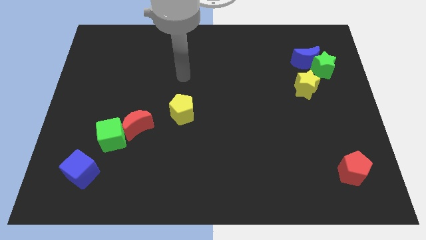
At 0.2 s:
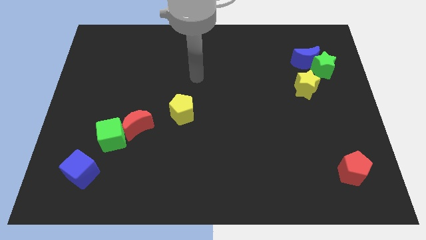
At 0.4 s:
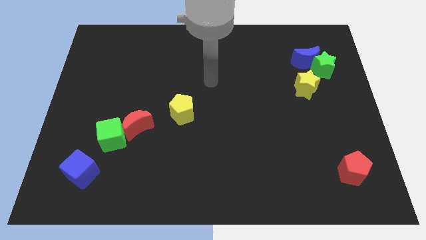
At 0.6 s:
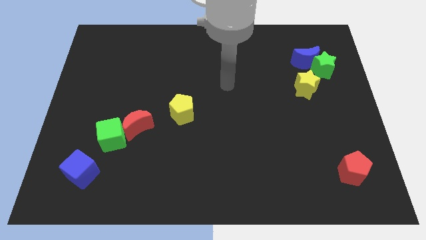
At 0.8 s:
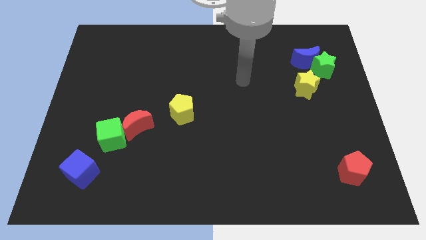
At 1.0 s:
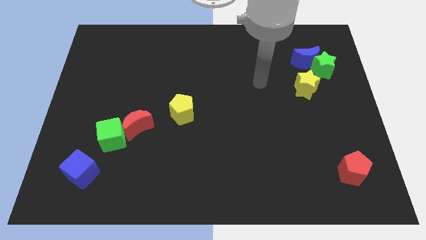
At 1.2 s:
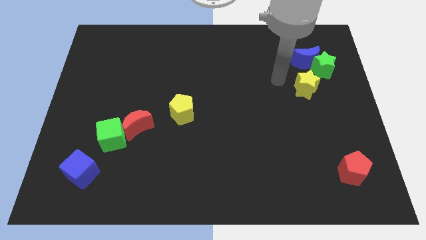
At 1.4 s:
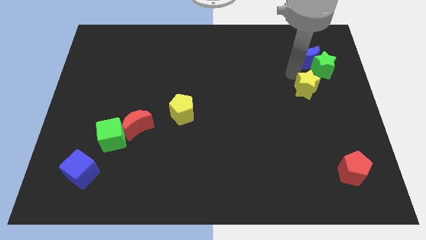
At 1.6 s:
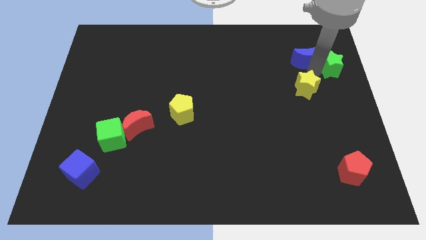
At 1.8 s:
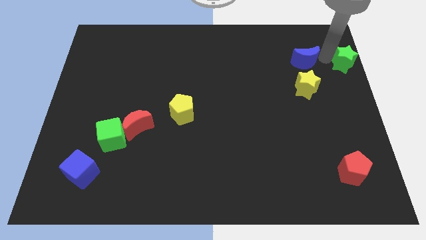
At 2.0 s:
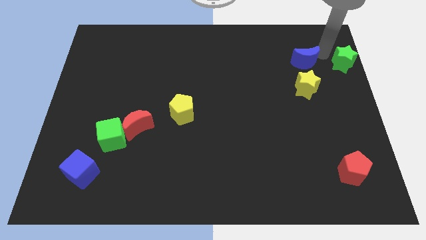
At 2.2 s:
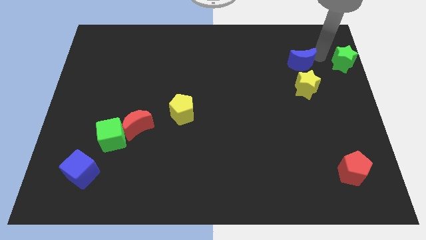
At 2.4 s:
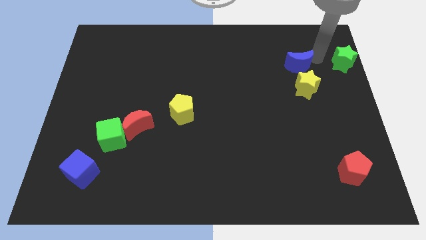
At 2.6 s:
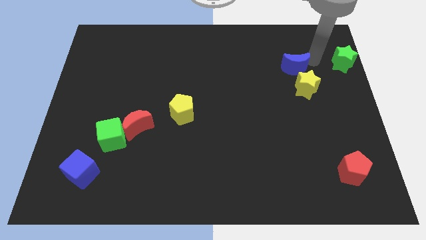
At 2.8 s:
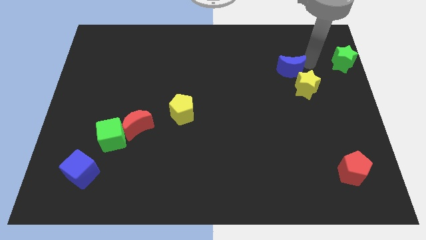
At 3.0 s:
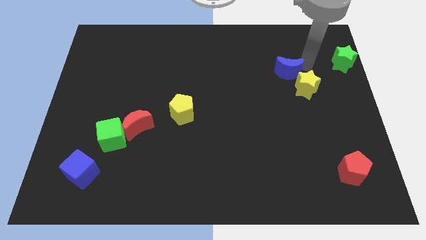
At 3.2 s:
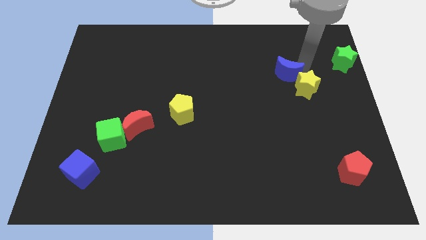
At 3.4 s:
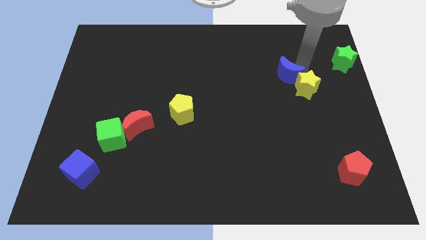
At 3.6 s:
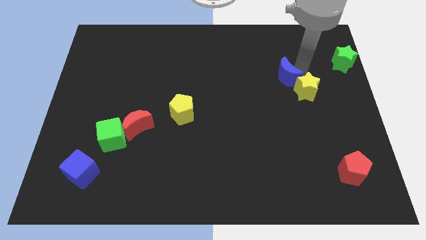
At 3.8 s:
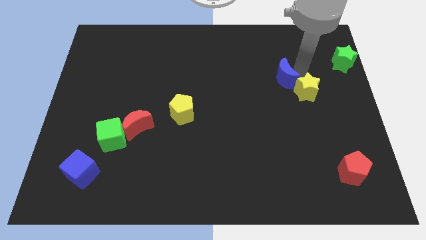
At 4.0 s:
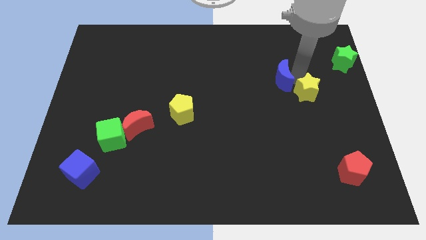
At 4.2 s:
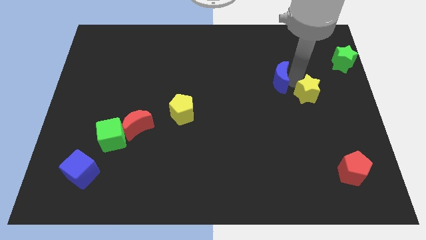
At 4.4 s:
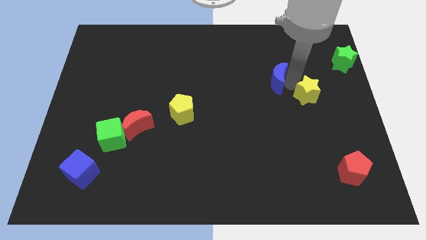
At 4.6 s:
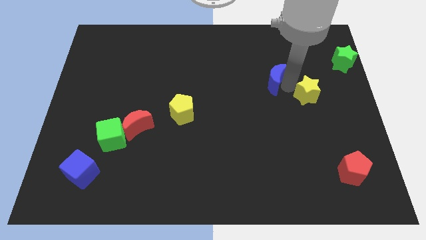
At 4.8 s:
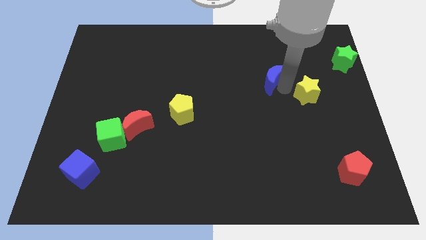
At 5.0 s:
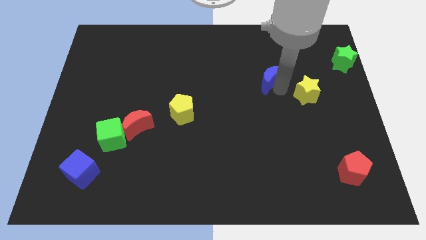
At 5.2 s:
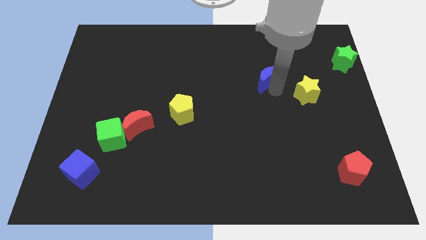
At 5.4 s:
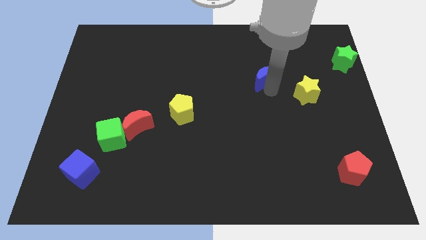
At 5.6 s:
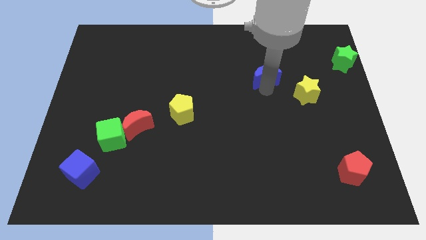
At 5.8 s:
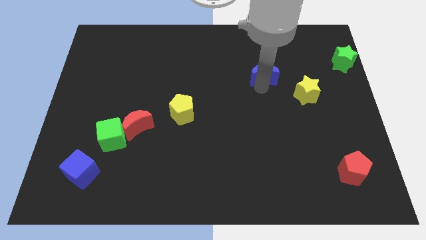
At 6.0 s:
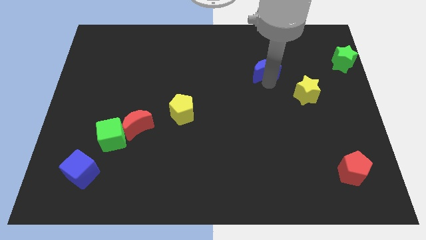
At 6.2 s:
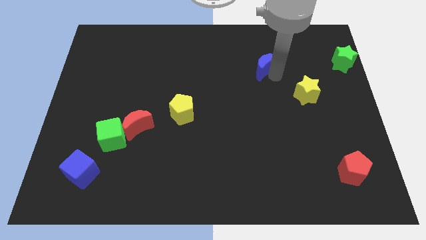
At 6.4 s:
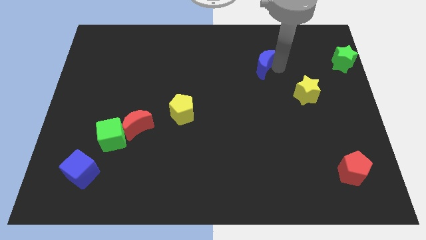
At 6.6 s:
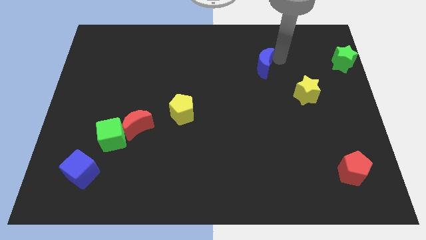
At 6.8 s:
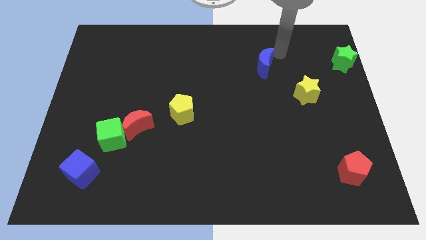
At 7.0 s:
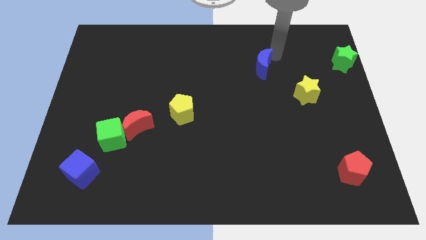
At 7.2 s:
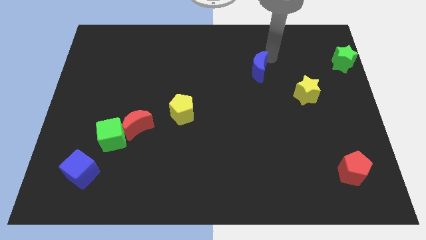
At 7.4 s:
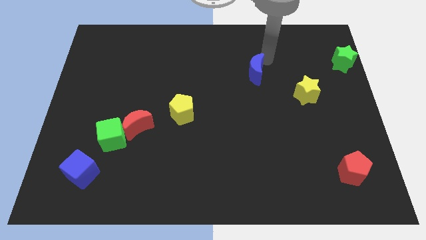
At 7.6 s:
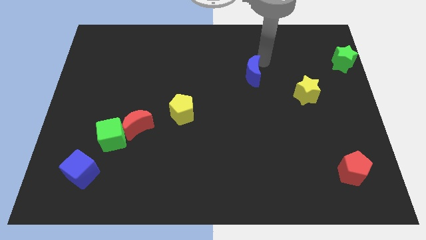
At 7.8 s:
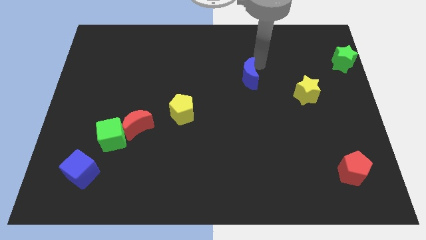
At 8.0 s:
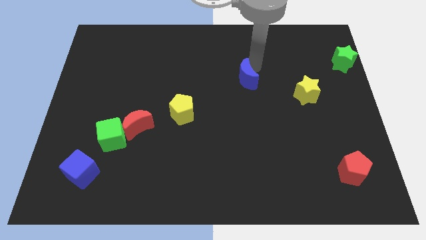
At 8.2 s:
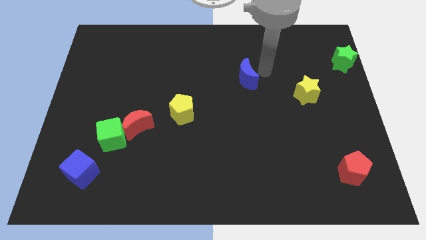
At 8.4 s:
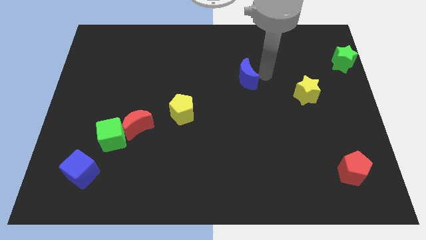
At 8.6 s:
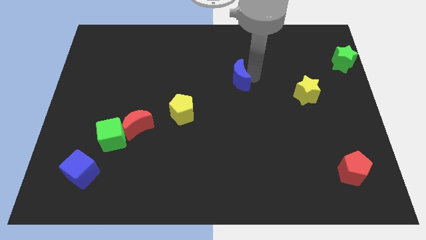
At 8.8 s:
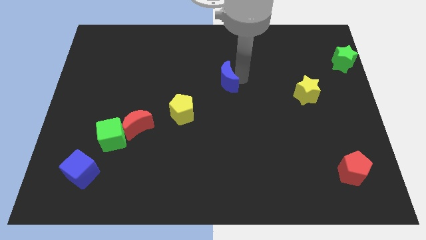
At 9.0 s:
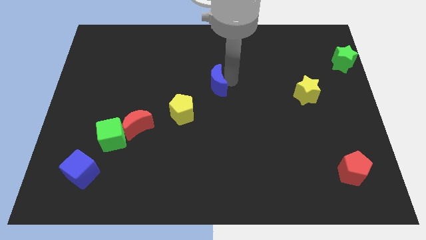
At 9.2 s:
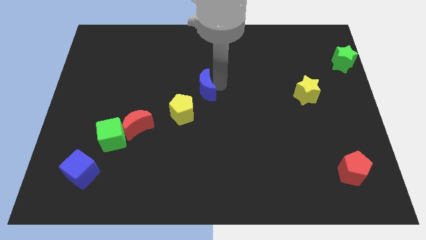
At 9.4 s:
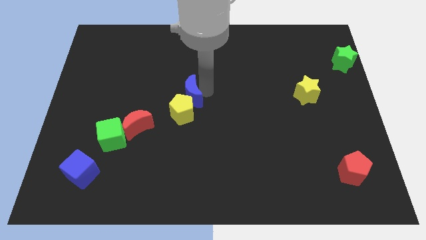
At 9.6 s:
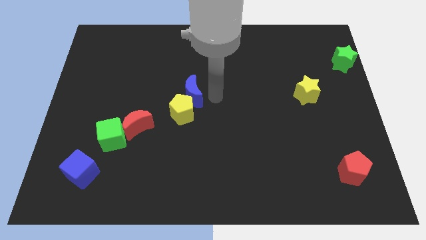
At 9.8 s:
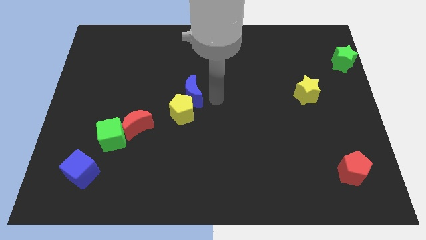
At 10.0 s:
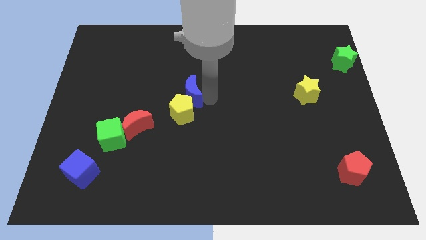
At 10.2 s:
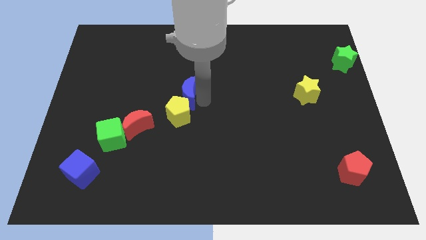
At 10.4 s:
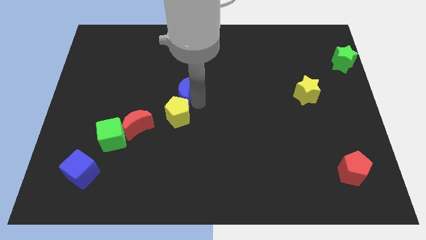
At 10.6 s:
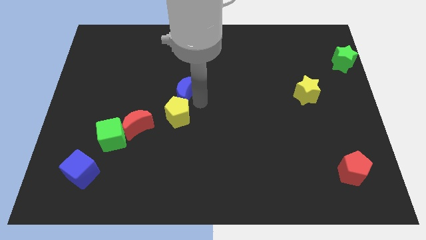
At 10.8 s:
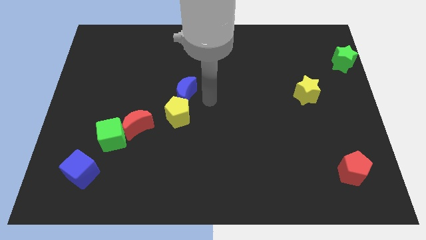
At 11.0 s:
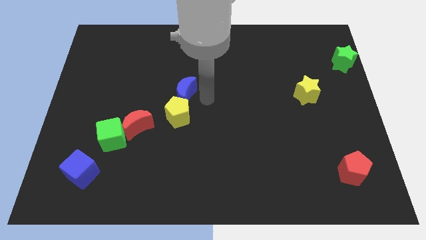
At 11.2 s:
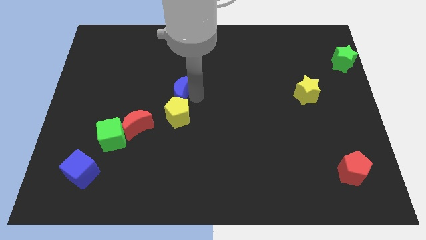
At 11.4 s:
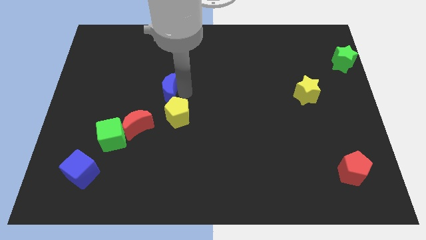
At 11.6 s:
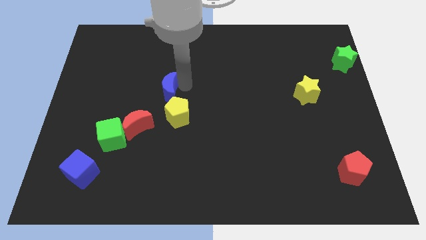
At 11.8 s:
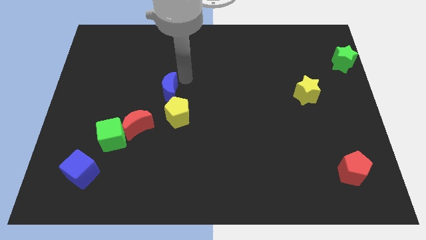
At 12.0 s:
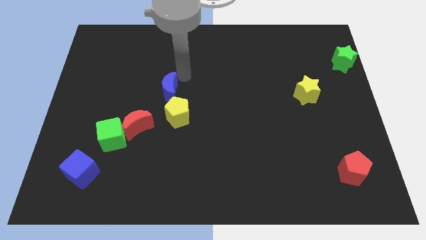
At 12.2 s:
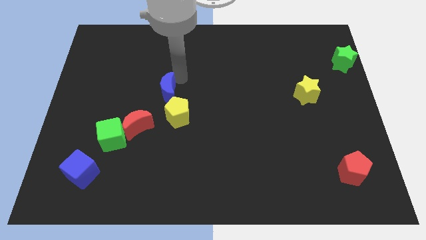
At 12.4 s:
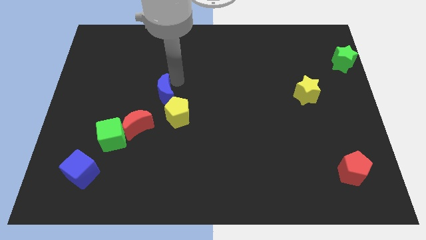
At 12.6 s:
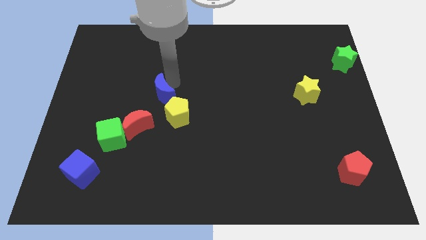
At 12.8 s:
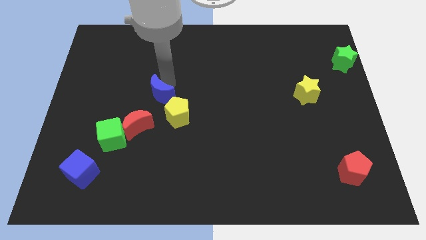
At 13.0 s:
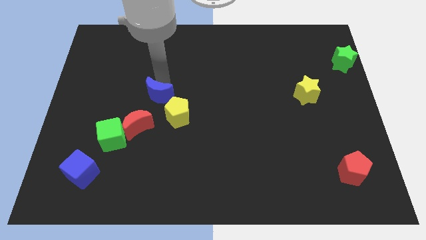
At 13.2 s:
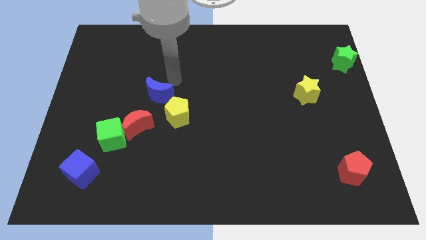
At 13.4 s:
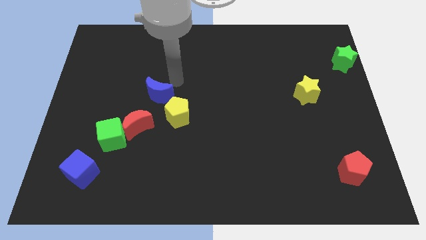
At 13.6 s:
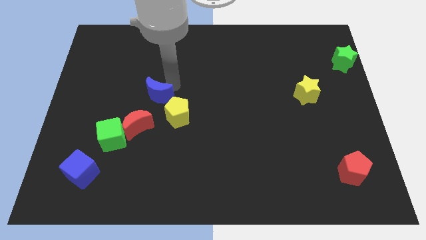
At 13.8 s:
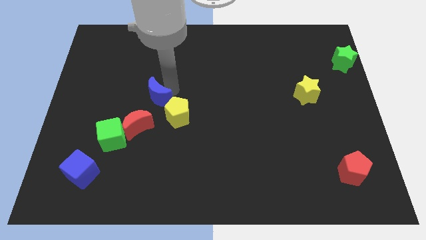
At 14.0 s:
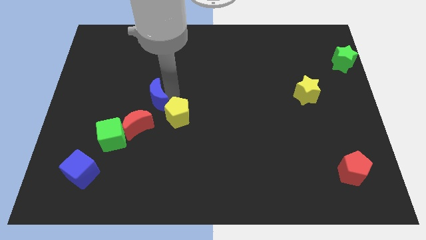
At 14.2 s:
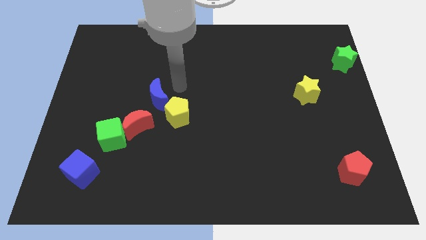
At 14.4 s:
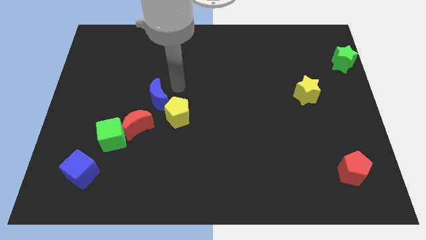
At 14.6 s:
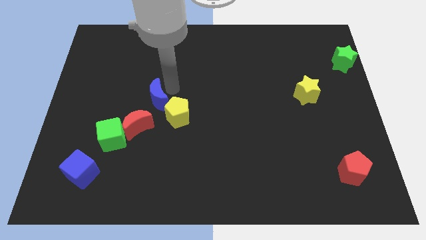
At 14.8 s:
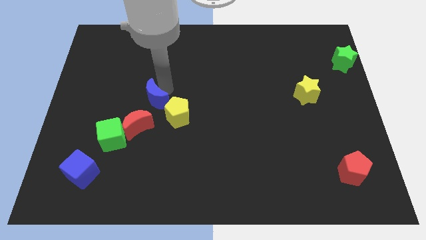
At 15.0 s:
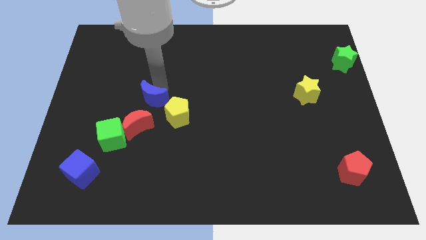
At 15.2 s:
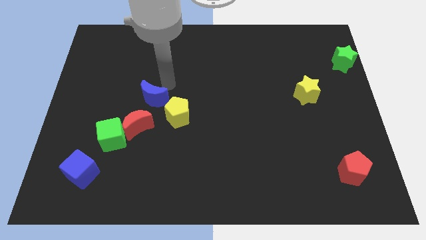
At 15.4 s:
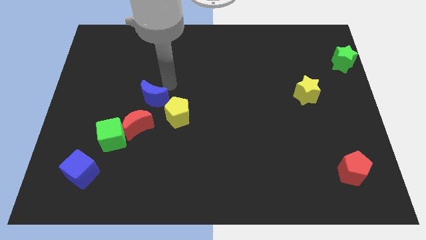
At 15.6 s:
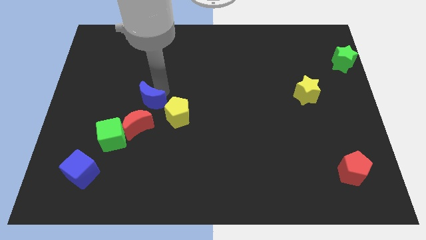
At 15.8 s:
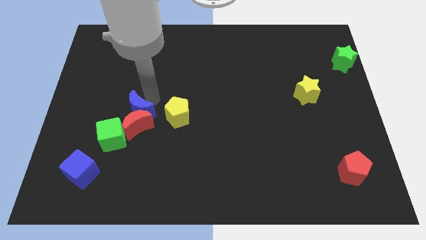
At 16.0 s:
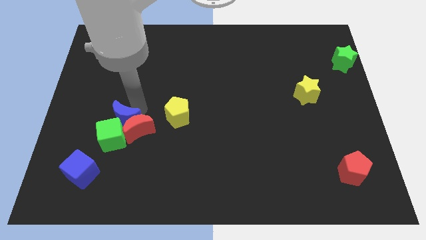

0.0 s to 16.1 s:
push the blue moon towards the green cube

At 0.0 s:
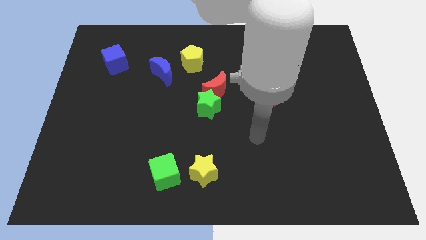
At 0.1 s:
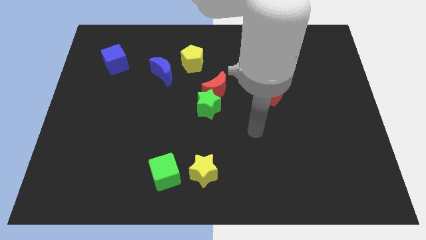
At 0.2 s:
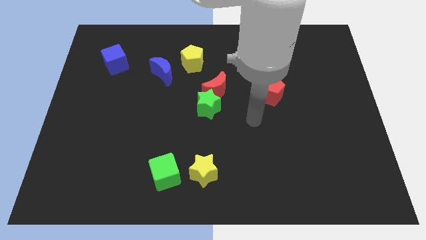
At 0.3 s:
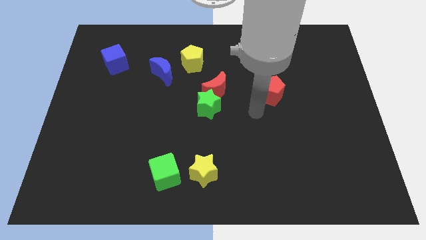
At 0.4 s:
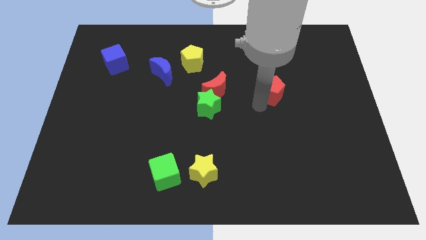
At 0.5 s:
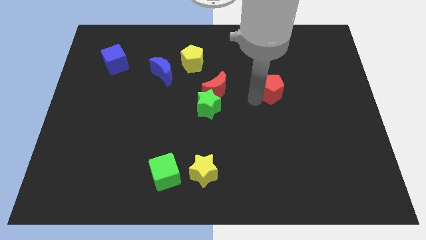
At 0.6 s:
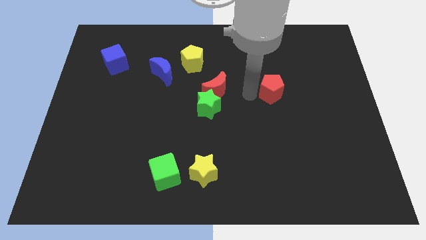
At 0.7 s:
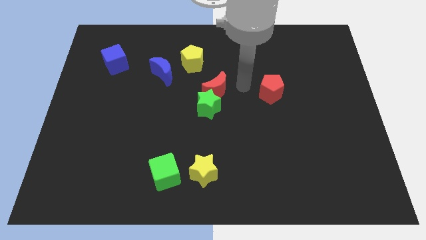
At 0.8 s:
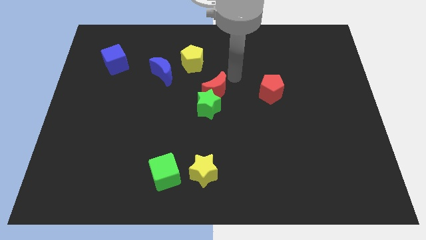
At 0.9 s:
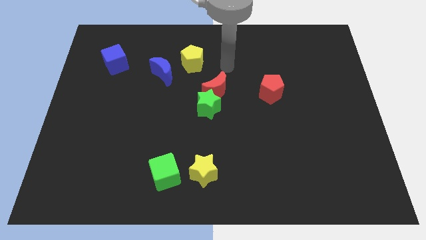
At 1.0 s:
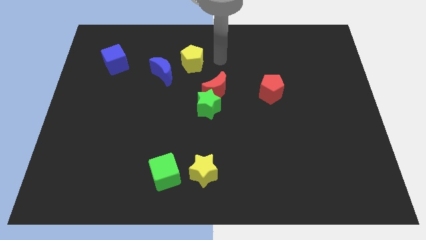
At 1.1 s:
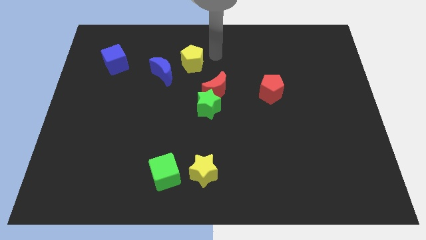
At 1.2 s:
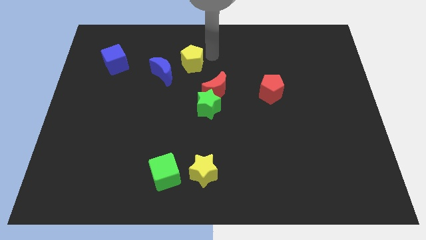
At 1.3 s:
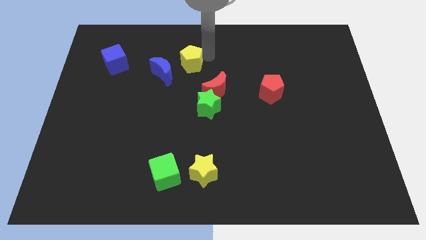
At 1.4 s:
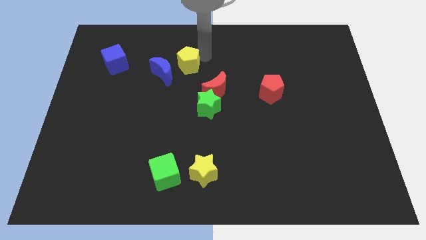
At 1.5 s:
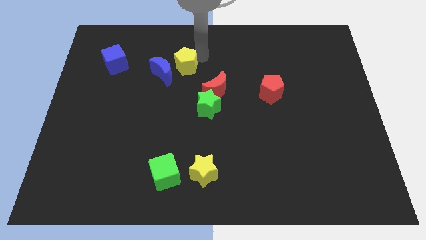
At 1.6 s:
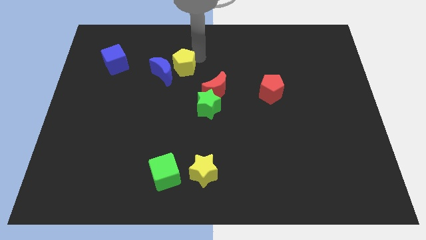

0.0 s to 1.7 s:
push the yellow pentagon towards the blue moon
